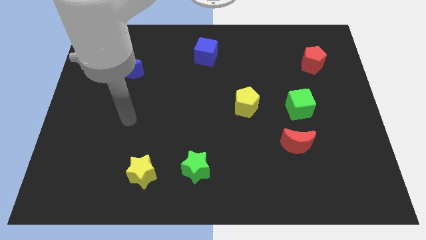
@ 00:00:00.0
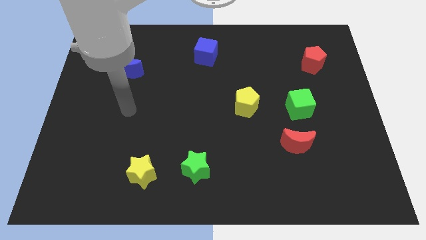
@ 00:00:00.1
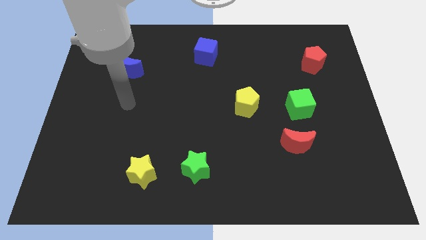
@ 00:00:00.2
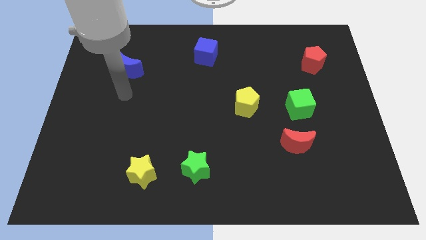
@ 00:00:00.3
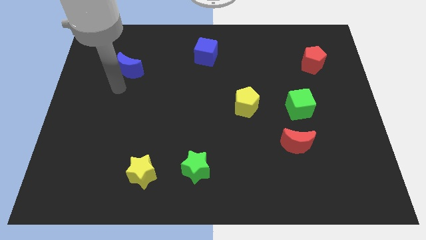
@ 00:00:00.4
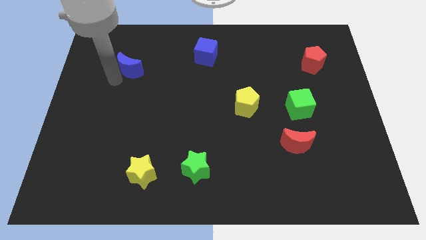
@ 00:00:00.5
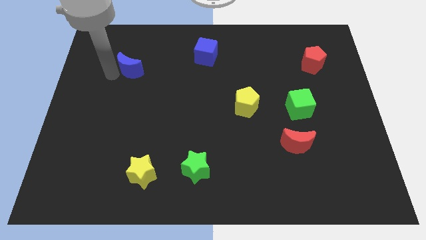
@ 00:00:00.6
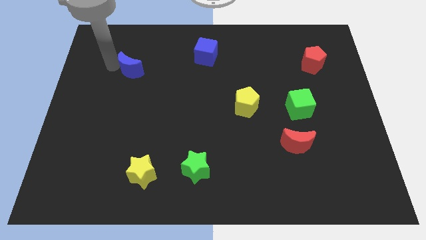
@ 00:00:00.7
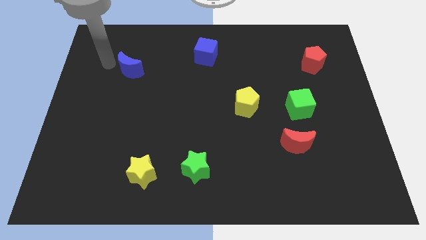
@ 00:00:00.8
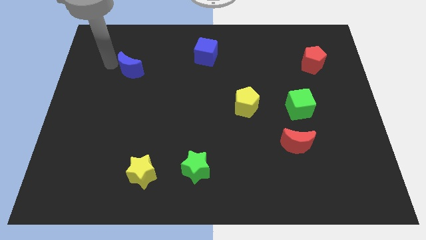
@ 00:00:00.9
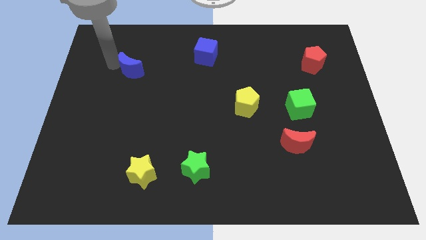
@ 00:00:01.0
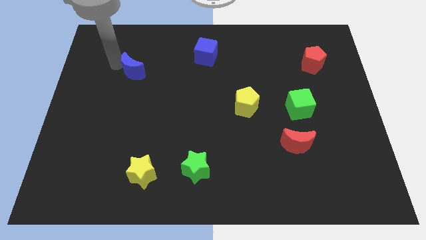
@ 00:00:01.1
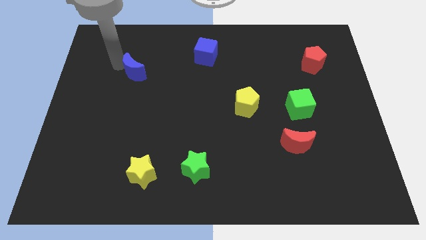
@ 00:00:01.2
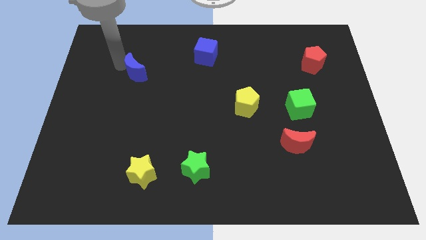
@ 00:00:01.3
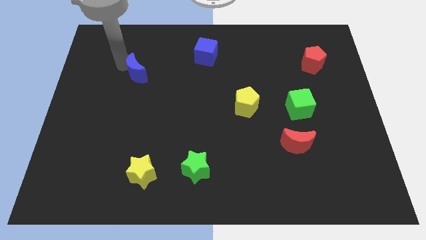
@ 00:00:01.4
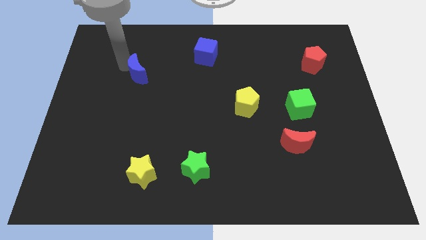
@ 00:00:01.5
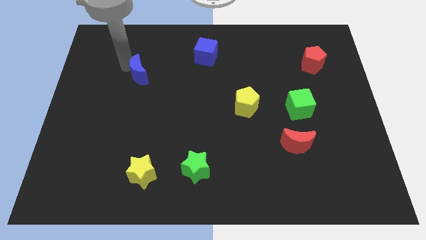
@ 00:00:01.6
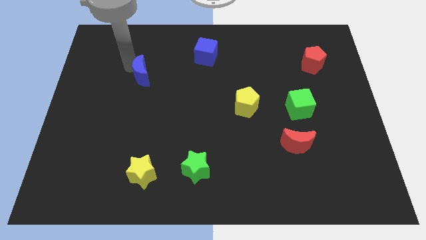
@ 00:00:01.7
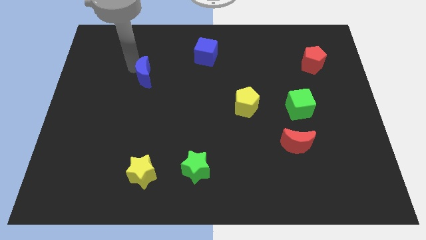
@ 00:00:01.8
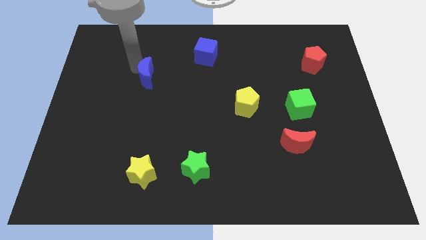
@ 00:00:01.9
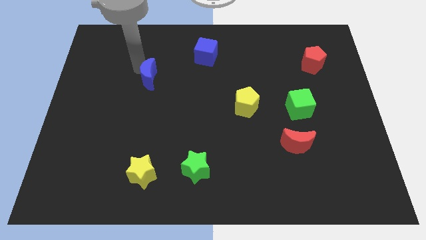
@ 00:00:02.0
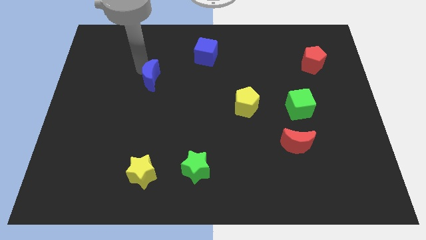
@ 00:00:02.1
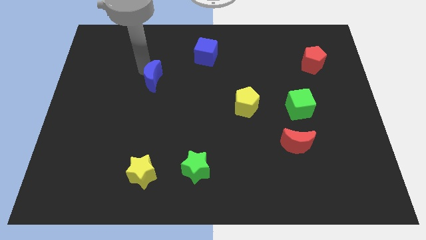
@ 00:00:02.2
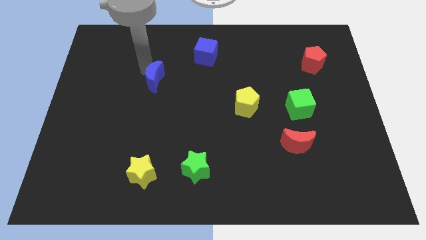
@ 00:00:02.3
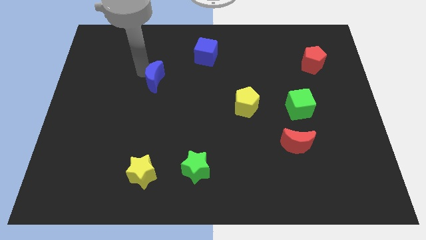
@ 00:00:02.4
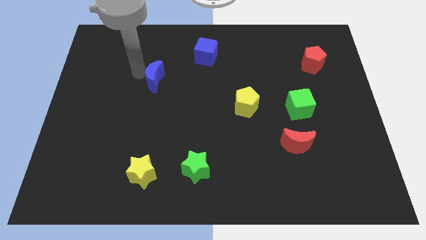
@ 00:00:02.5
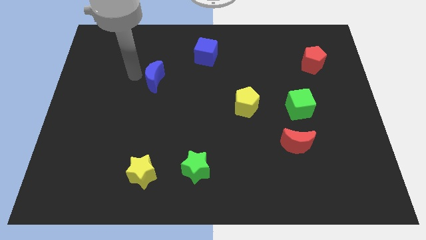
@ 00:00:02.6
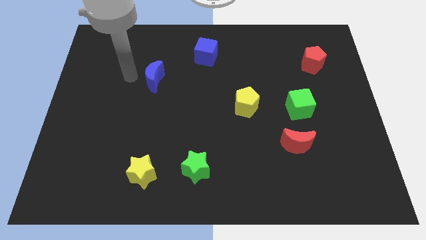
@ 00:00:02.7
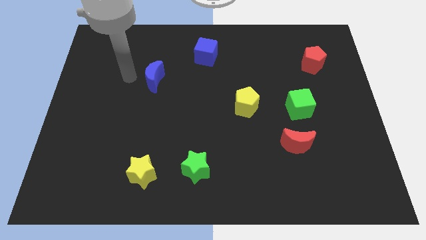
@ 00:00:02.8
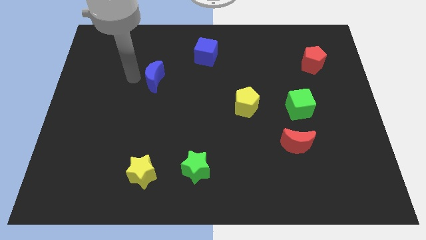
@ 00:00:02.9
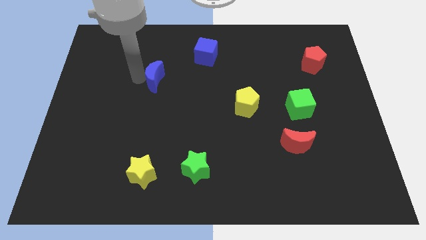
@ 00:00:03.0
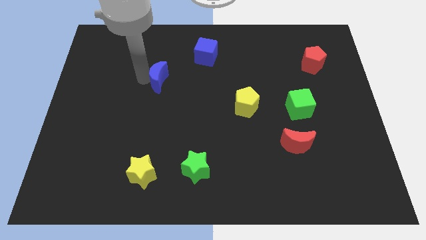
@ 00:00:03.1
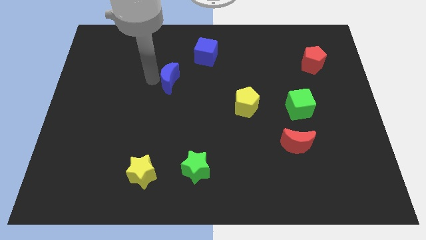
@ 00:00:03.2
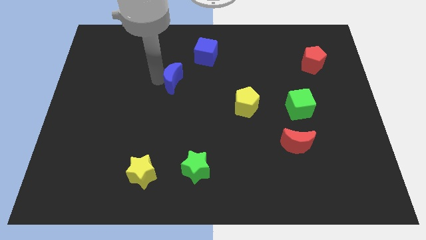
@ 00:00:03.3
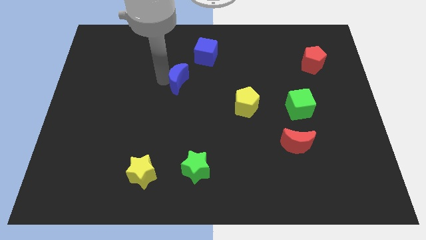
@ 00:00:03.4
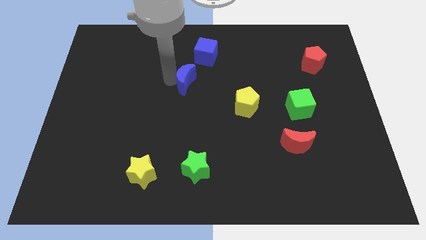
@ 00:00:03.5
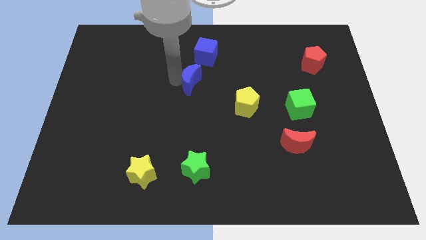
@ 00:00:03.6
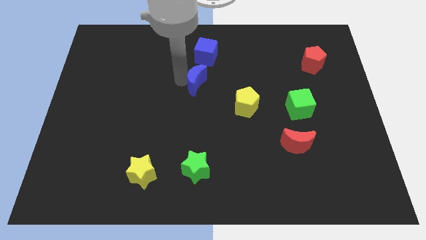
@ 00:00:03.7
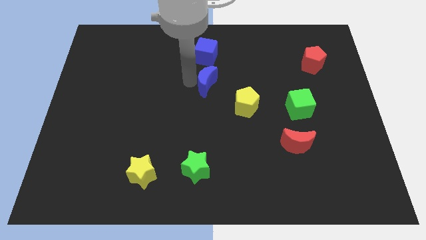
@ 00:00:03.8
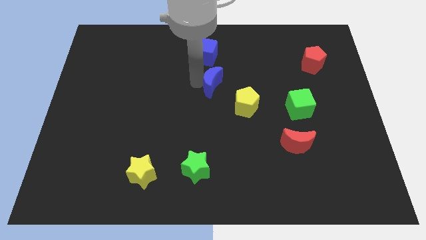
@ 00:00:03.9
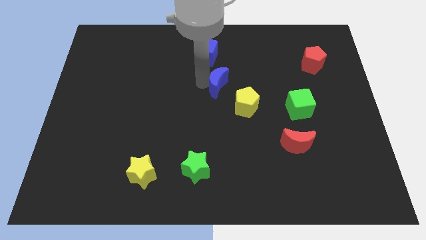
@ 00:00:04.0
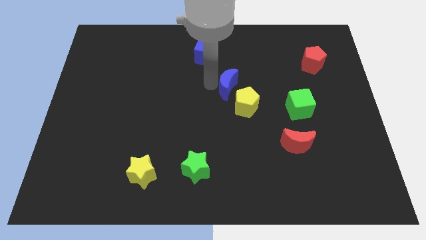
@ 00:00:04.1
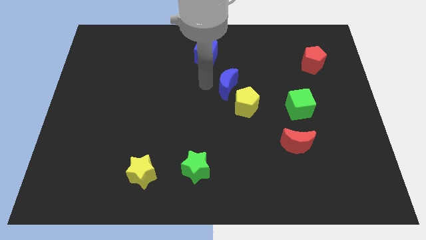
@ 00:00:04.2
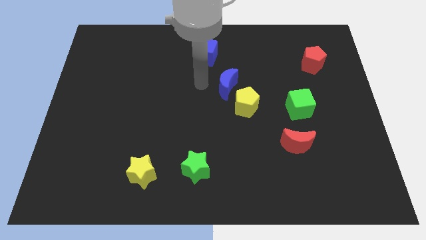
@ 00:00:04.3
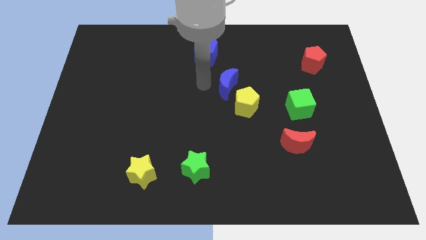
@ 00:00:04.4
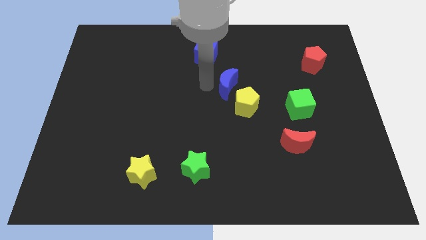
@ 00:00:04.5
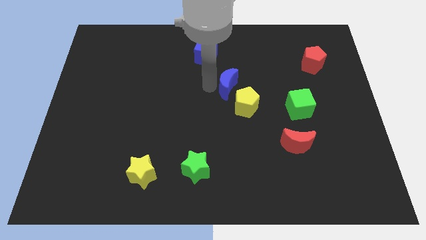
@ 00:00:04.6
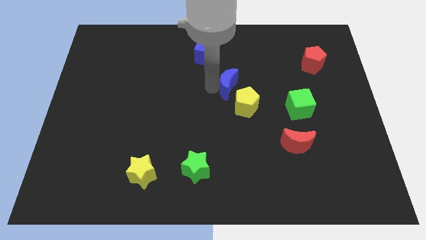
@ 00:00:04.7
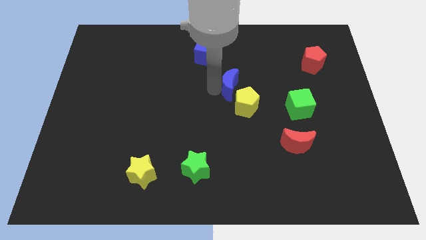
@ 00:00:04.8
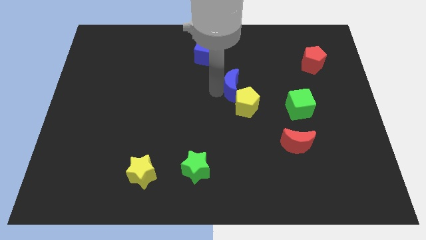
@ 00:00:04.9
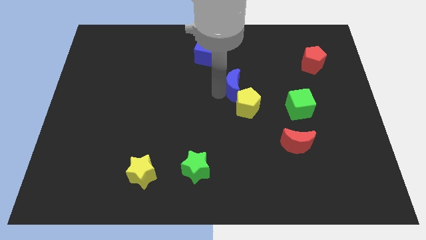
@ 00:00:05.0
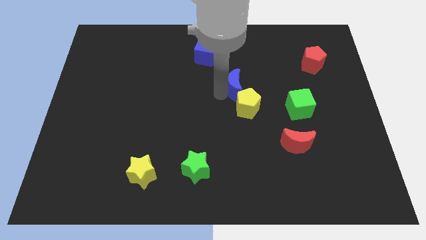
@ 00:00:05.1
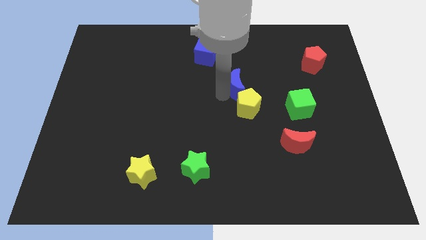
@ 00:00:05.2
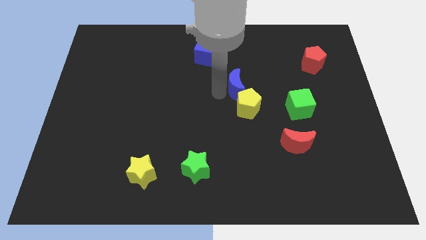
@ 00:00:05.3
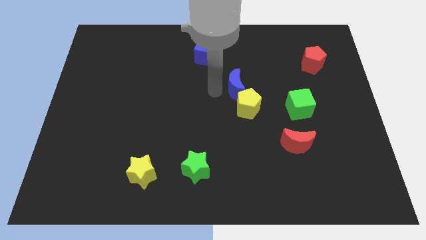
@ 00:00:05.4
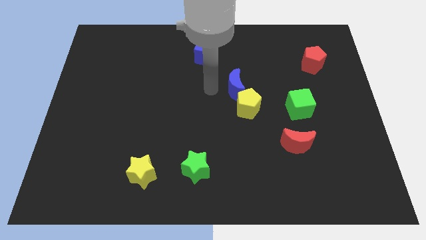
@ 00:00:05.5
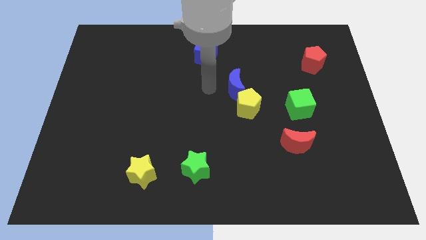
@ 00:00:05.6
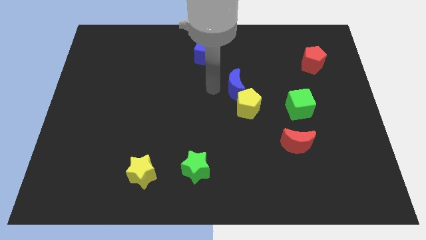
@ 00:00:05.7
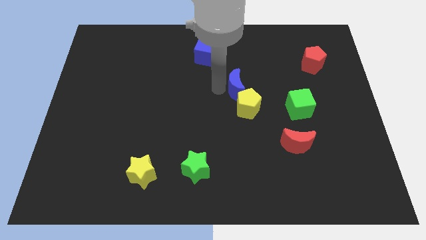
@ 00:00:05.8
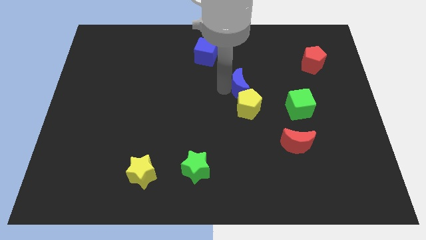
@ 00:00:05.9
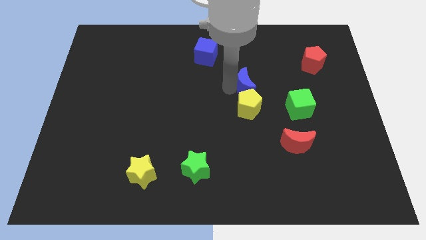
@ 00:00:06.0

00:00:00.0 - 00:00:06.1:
move the blue moon to the top right side of the yellow pentagon
